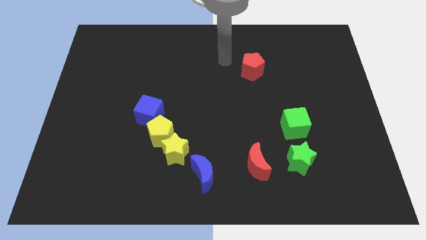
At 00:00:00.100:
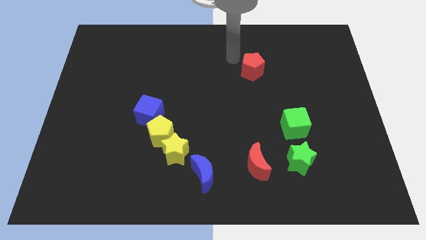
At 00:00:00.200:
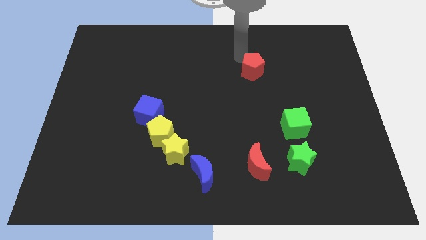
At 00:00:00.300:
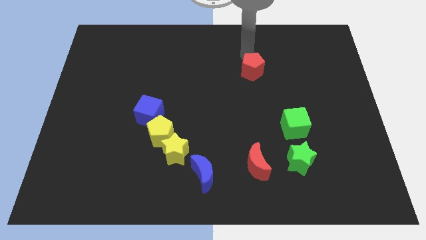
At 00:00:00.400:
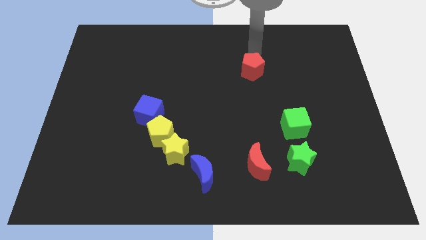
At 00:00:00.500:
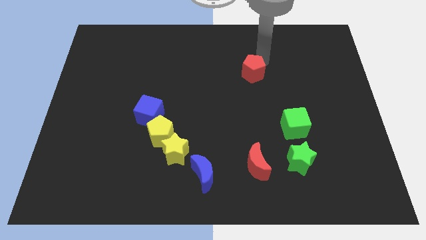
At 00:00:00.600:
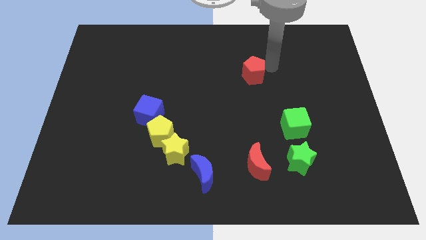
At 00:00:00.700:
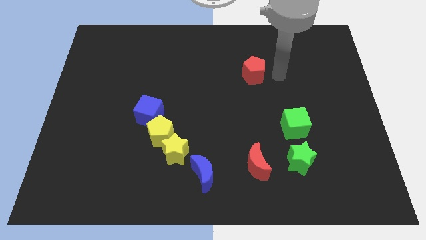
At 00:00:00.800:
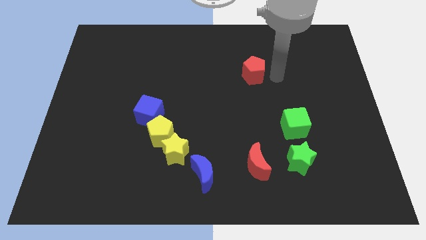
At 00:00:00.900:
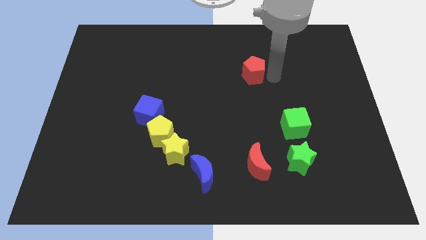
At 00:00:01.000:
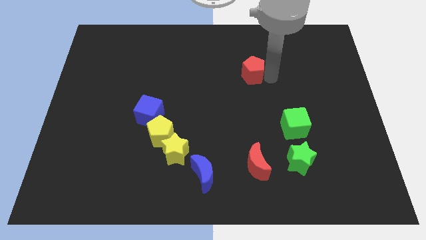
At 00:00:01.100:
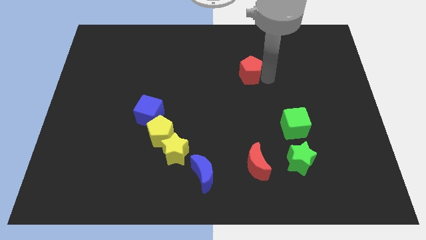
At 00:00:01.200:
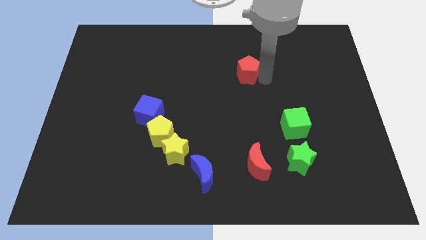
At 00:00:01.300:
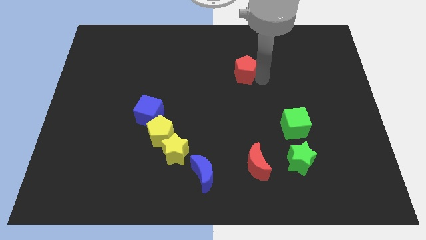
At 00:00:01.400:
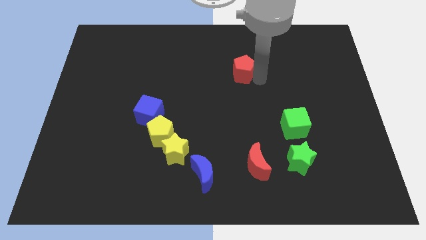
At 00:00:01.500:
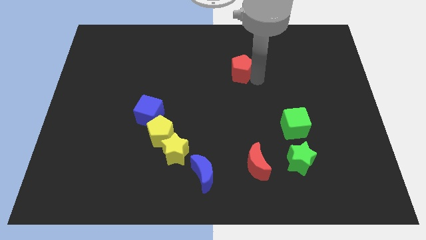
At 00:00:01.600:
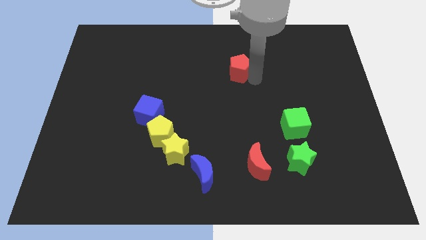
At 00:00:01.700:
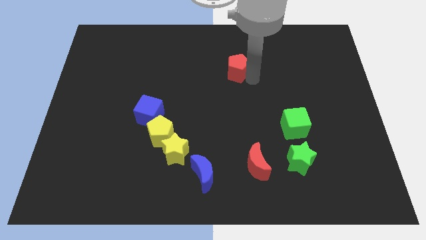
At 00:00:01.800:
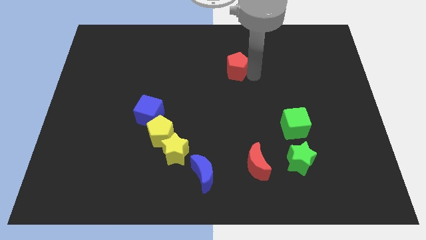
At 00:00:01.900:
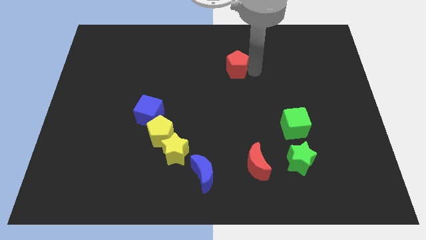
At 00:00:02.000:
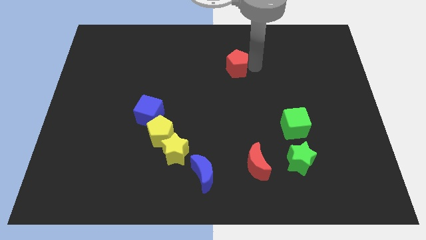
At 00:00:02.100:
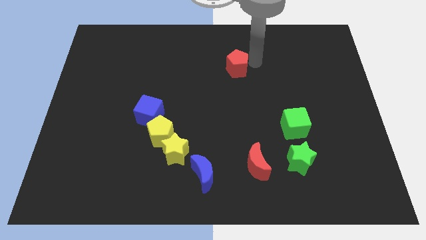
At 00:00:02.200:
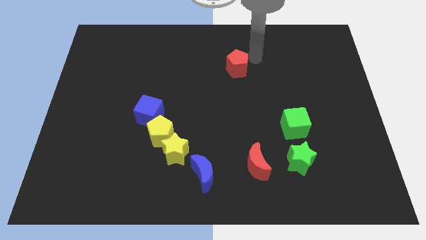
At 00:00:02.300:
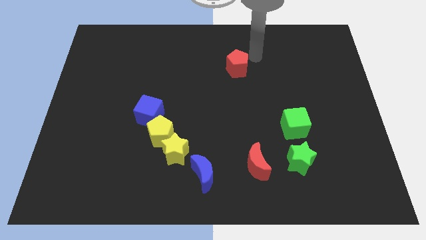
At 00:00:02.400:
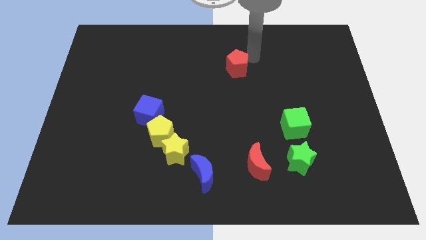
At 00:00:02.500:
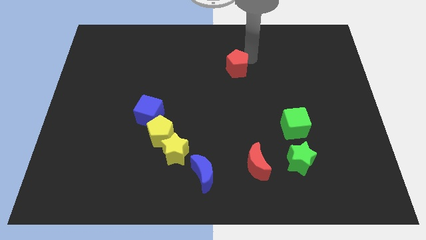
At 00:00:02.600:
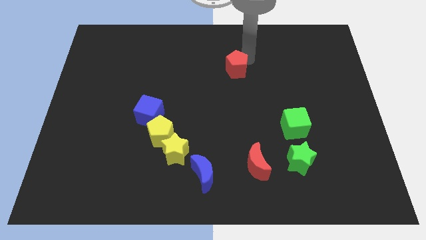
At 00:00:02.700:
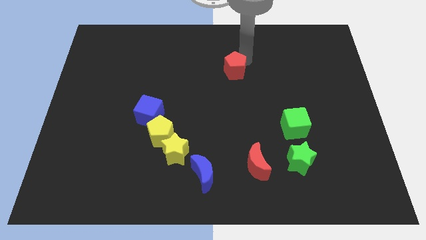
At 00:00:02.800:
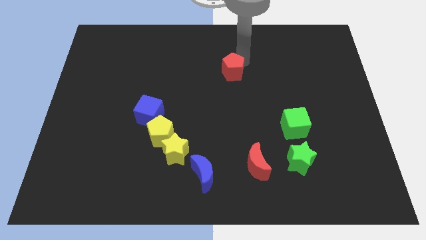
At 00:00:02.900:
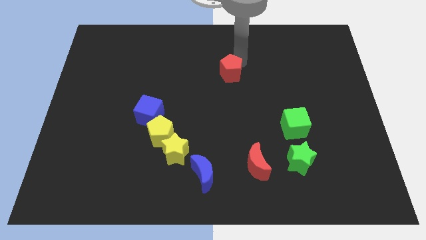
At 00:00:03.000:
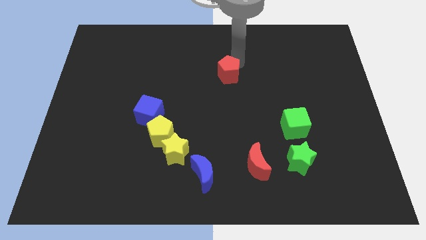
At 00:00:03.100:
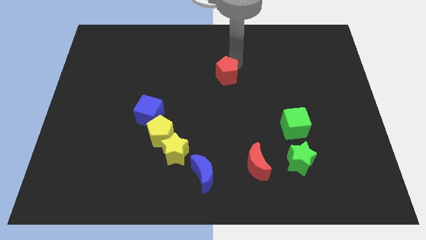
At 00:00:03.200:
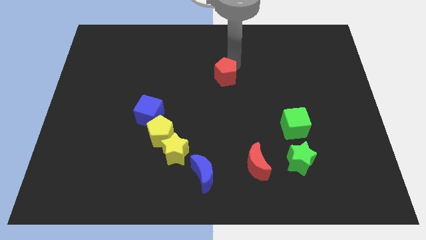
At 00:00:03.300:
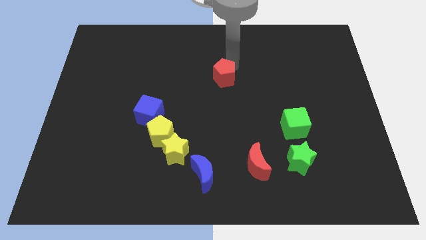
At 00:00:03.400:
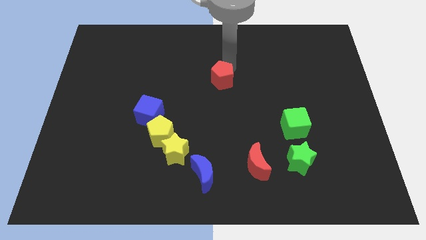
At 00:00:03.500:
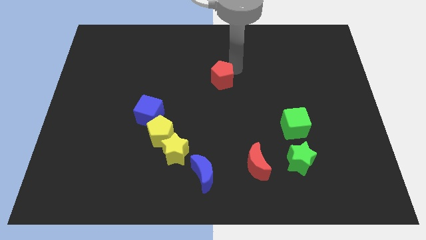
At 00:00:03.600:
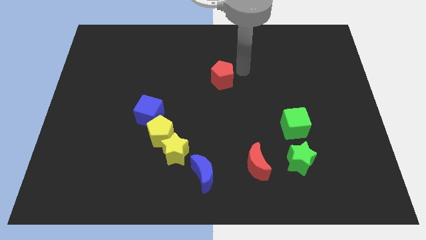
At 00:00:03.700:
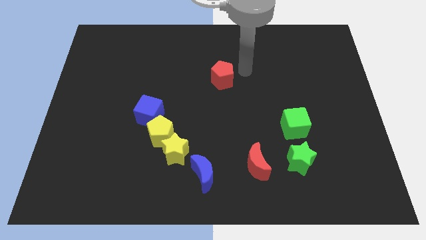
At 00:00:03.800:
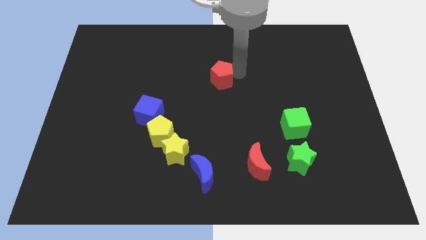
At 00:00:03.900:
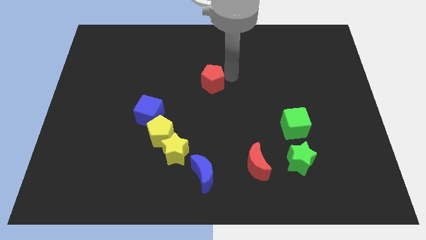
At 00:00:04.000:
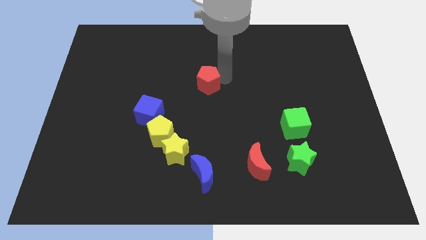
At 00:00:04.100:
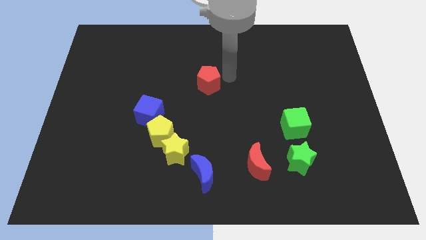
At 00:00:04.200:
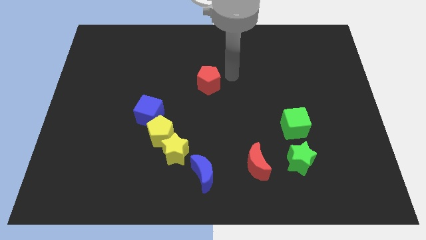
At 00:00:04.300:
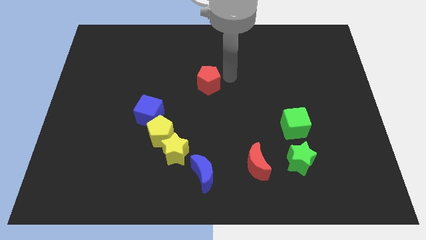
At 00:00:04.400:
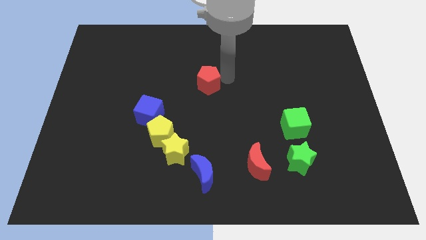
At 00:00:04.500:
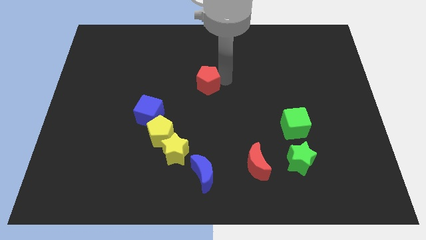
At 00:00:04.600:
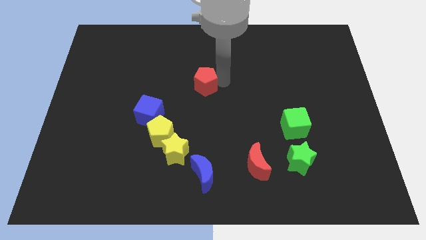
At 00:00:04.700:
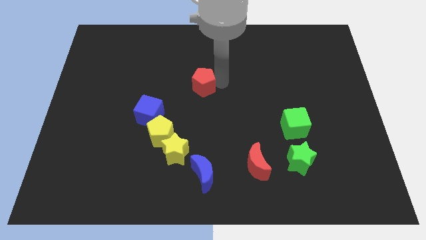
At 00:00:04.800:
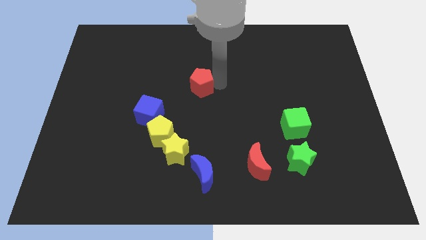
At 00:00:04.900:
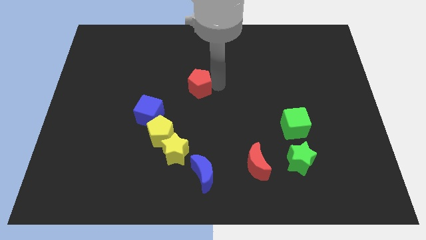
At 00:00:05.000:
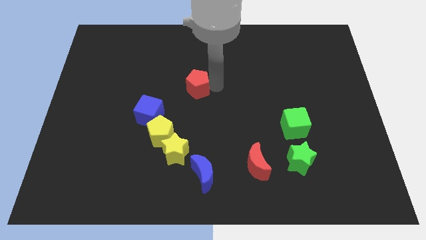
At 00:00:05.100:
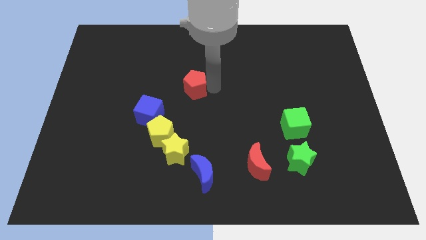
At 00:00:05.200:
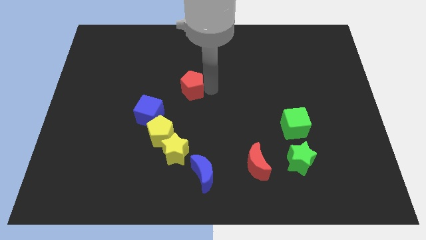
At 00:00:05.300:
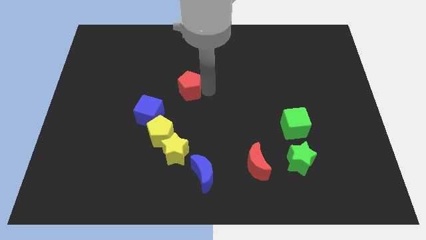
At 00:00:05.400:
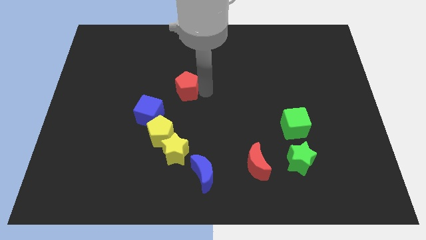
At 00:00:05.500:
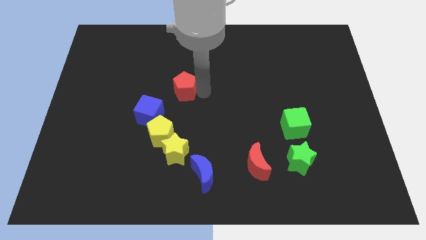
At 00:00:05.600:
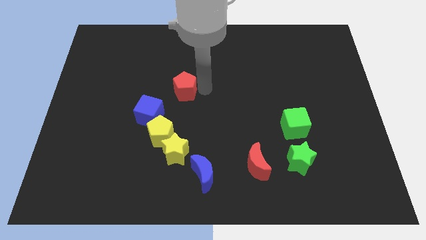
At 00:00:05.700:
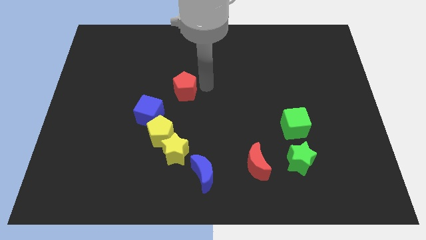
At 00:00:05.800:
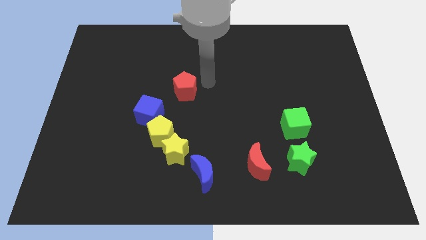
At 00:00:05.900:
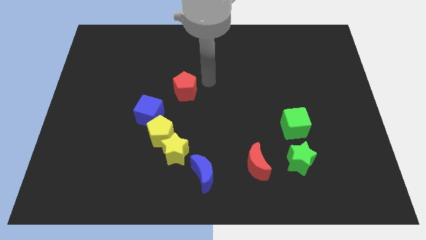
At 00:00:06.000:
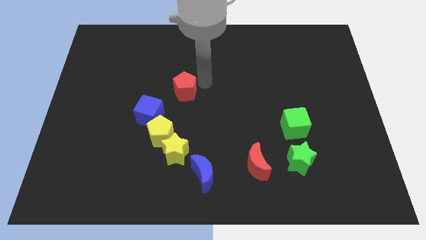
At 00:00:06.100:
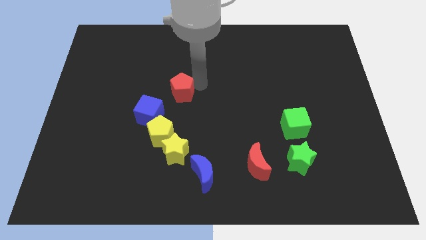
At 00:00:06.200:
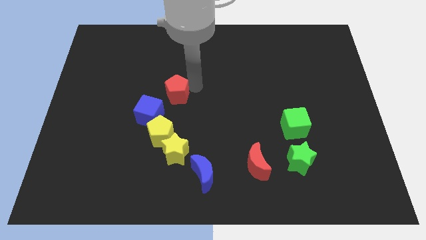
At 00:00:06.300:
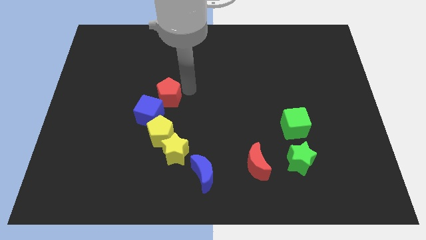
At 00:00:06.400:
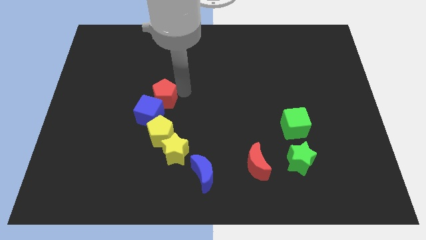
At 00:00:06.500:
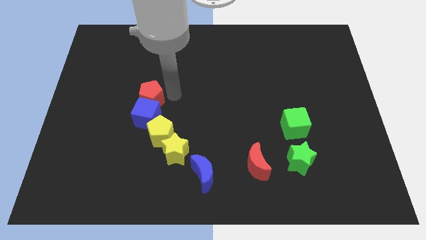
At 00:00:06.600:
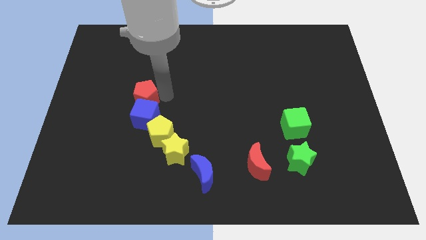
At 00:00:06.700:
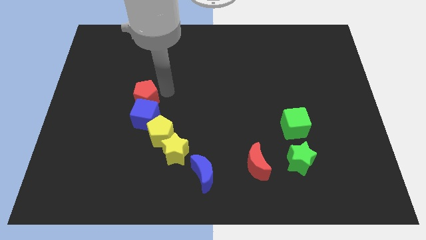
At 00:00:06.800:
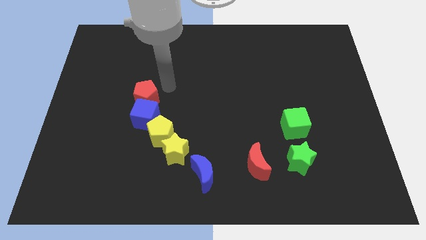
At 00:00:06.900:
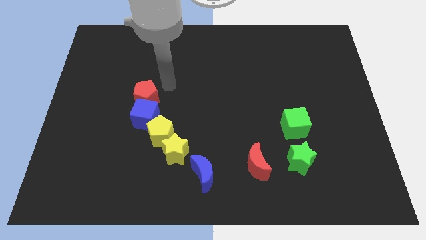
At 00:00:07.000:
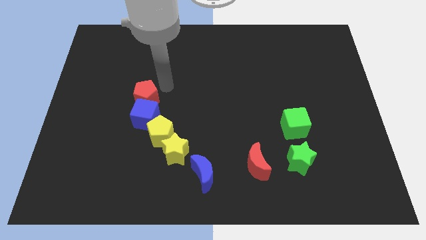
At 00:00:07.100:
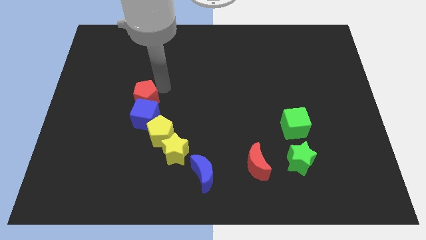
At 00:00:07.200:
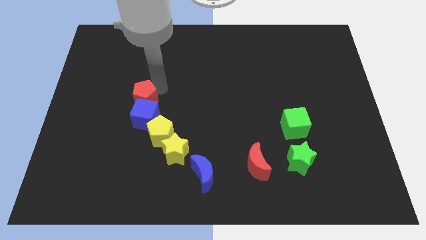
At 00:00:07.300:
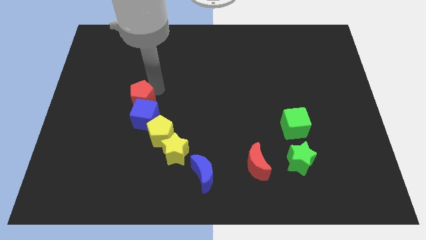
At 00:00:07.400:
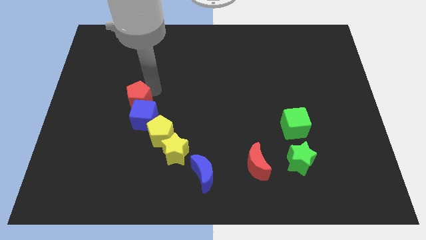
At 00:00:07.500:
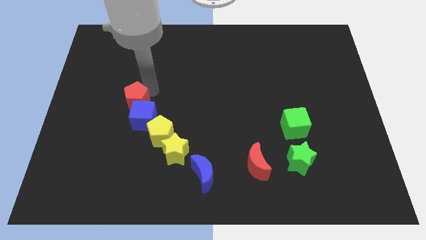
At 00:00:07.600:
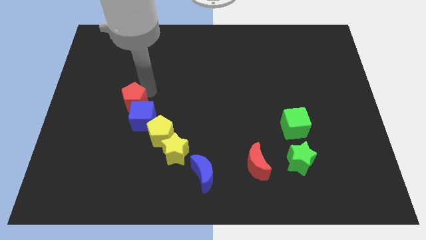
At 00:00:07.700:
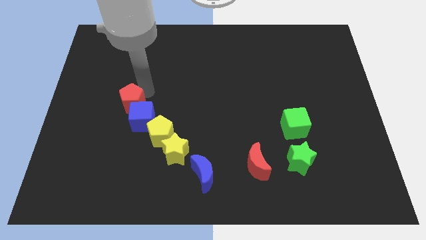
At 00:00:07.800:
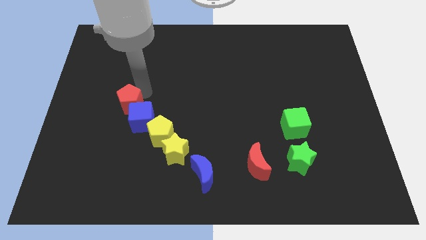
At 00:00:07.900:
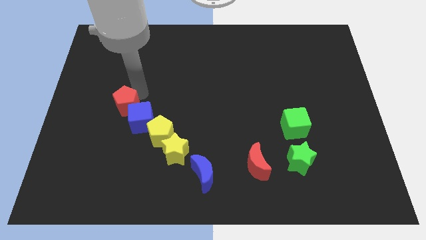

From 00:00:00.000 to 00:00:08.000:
move the red pentagon to the left side of the blue cube

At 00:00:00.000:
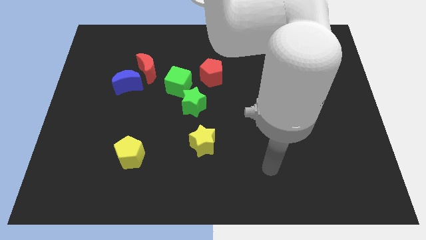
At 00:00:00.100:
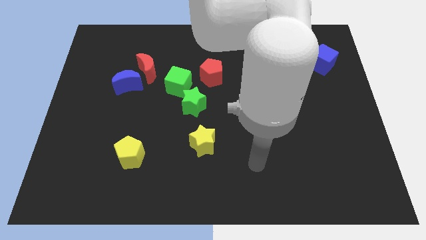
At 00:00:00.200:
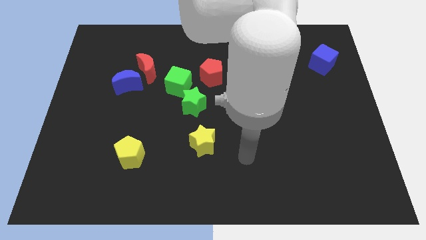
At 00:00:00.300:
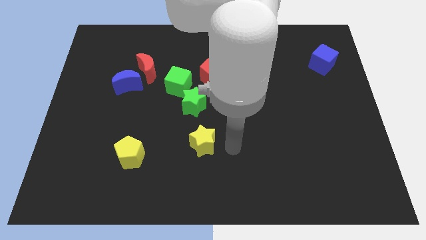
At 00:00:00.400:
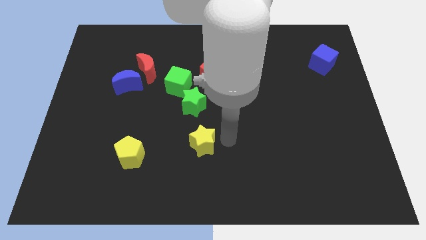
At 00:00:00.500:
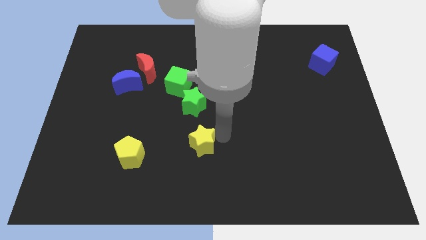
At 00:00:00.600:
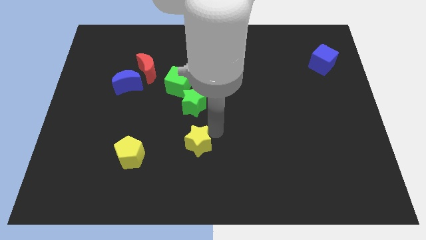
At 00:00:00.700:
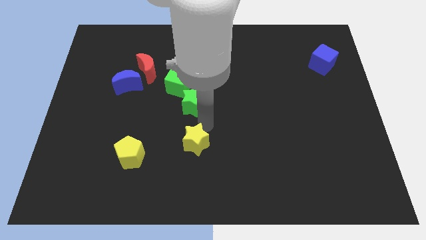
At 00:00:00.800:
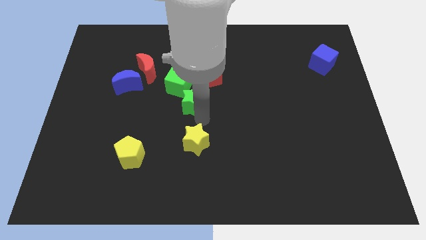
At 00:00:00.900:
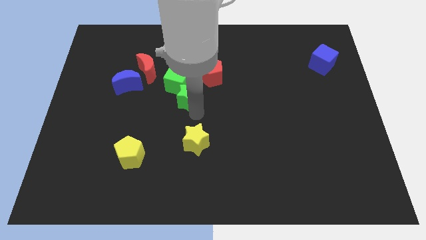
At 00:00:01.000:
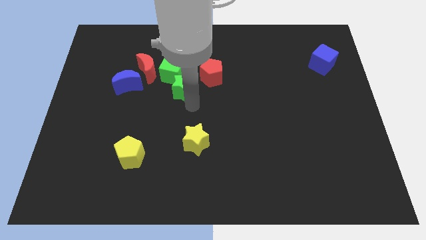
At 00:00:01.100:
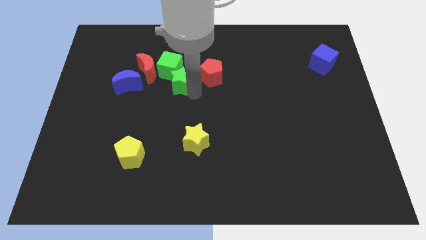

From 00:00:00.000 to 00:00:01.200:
slide the green cube to the top right of the blue moon
